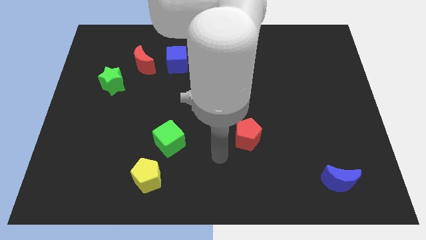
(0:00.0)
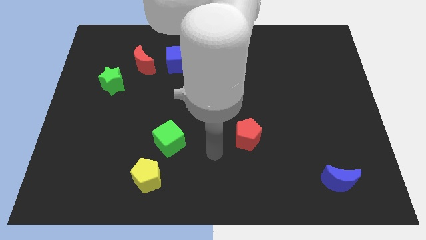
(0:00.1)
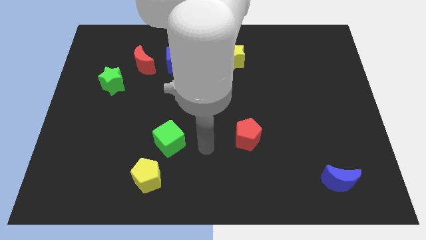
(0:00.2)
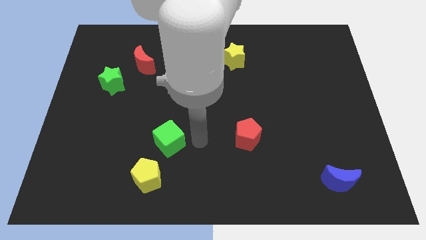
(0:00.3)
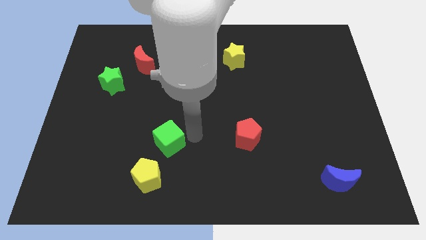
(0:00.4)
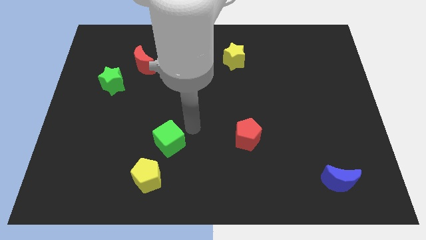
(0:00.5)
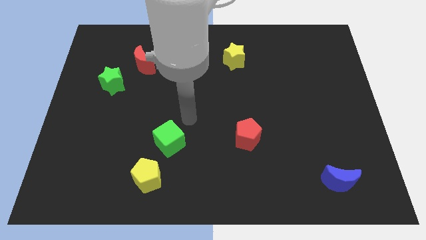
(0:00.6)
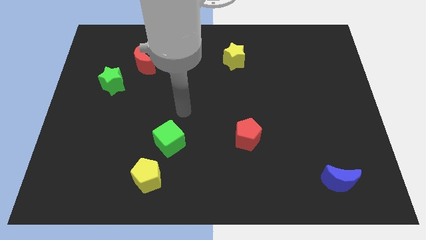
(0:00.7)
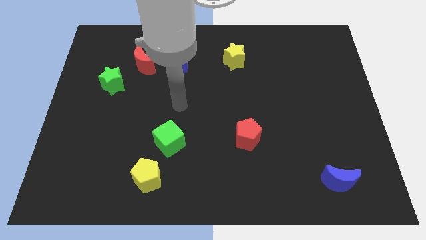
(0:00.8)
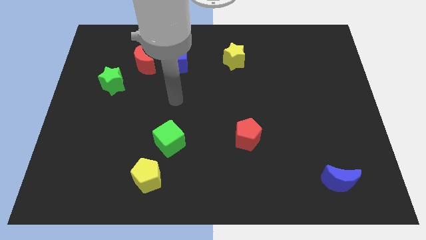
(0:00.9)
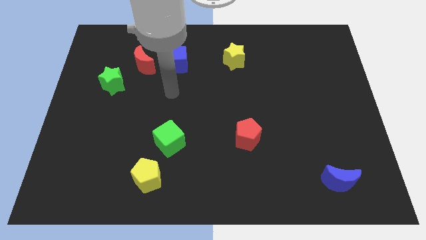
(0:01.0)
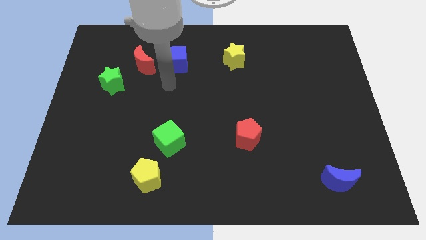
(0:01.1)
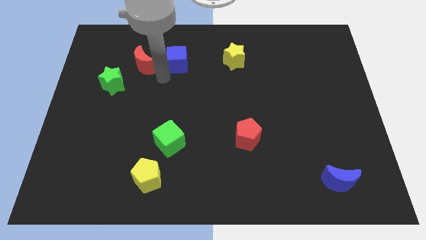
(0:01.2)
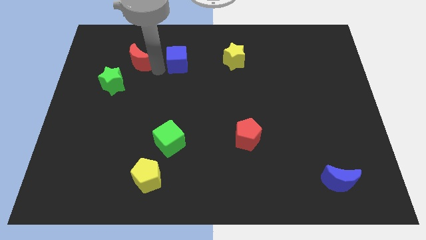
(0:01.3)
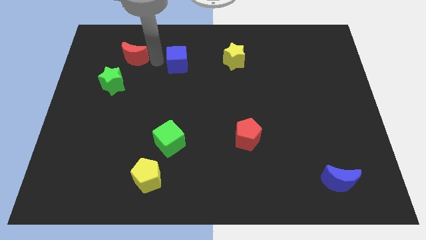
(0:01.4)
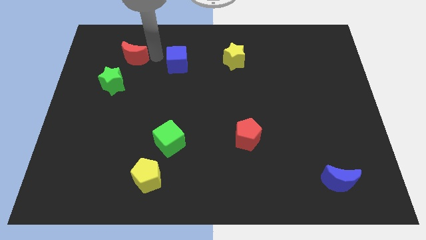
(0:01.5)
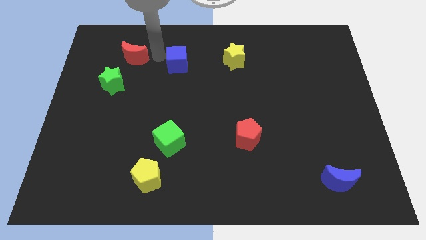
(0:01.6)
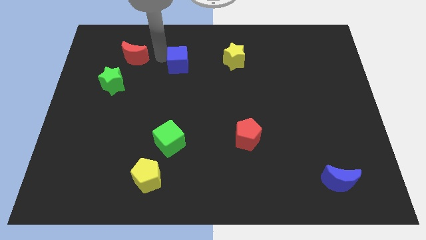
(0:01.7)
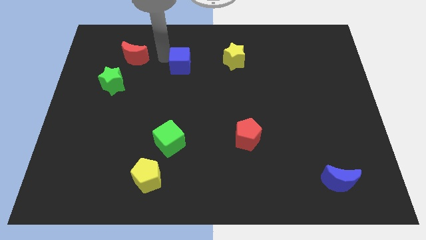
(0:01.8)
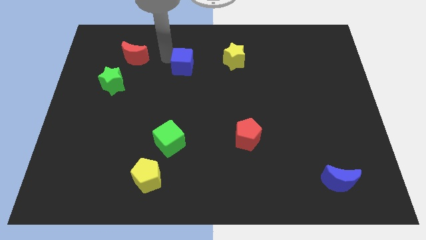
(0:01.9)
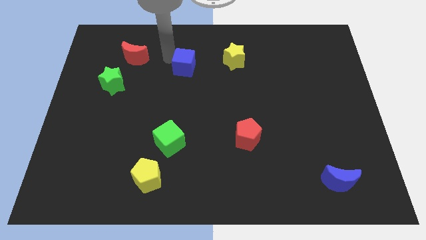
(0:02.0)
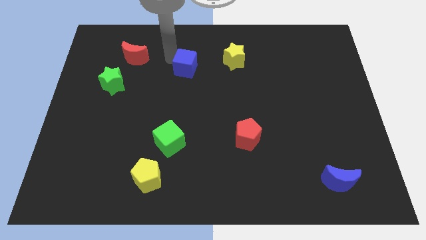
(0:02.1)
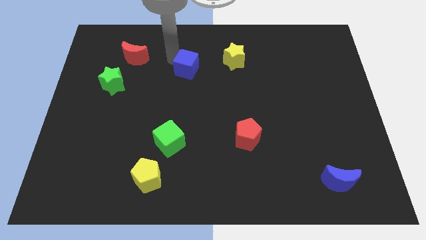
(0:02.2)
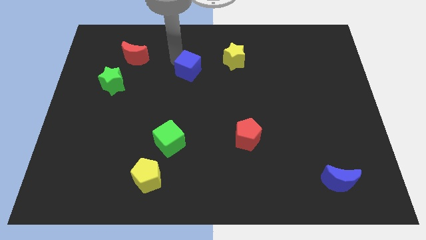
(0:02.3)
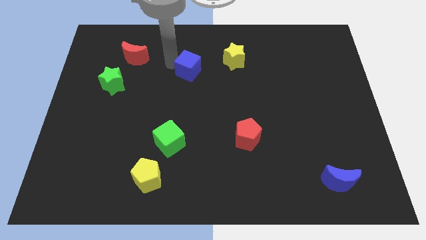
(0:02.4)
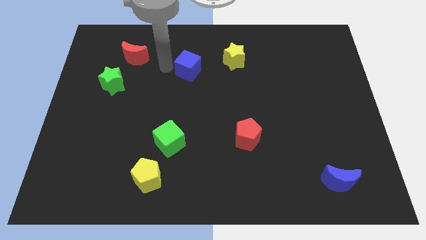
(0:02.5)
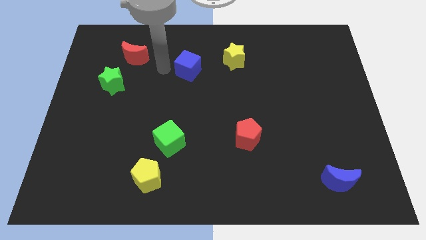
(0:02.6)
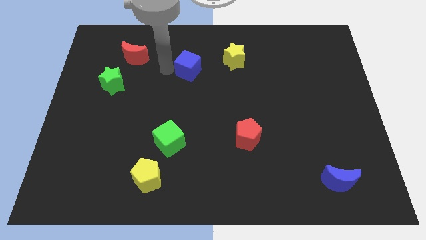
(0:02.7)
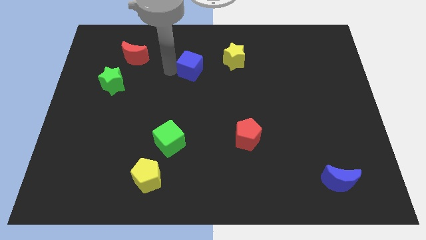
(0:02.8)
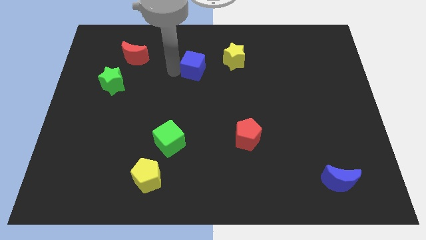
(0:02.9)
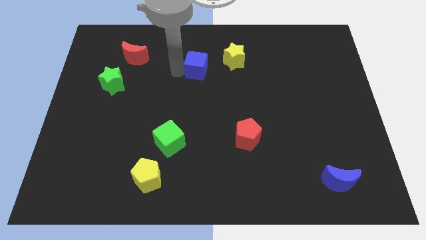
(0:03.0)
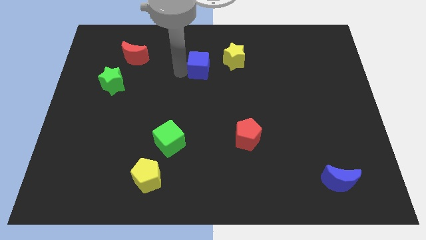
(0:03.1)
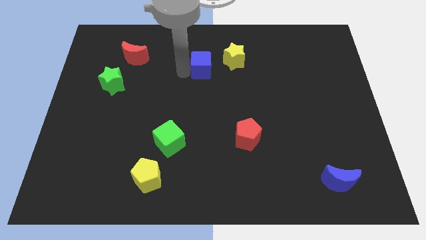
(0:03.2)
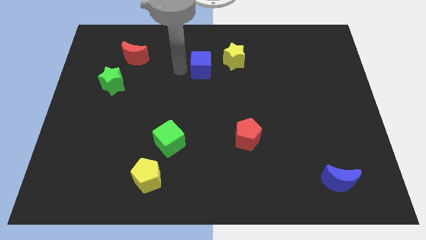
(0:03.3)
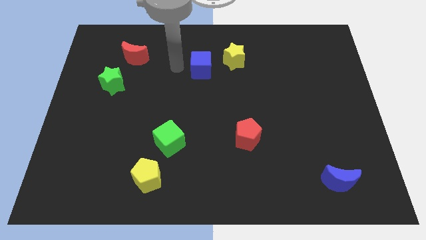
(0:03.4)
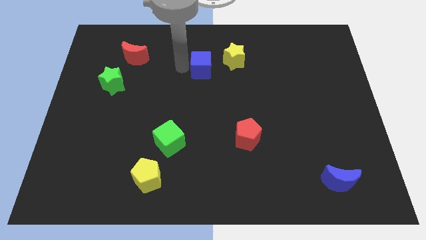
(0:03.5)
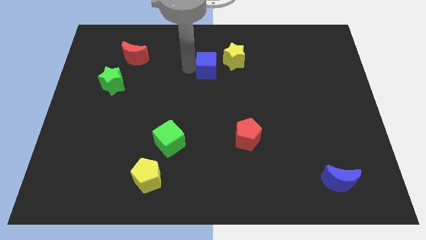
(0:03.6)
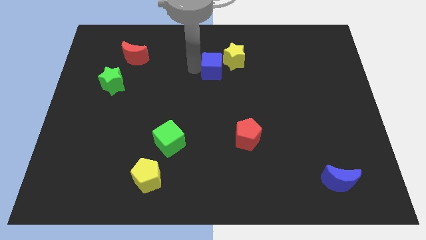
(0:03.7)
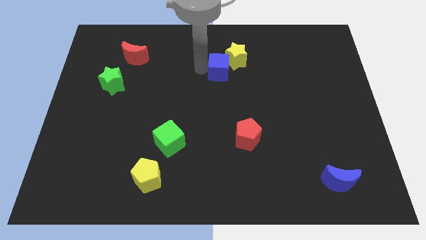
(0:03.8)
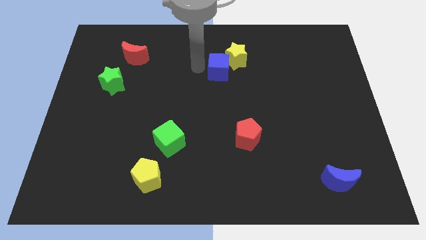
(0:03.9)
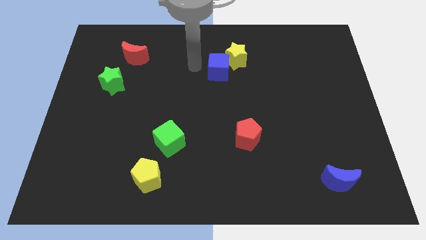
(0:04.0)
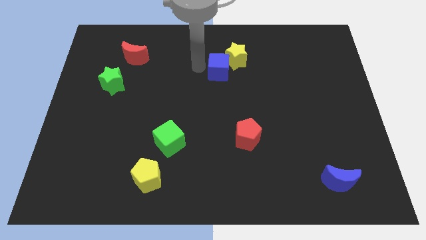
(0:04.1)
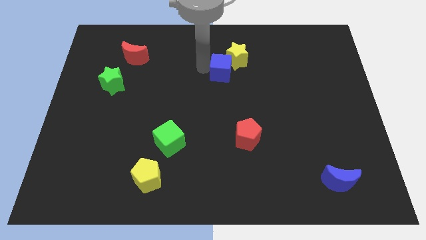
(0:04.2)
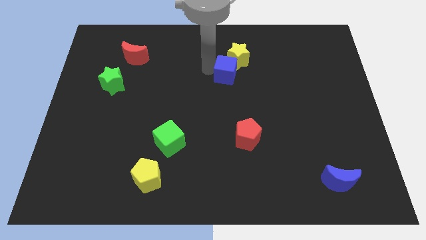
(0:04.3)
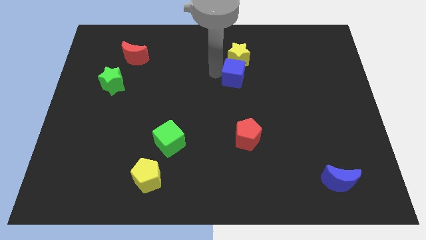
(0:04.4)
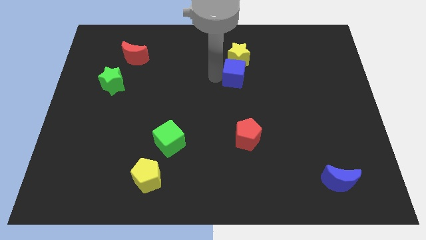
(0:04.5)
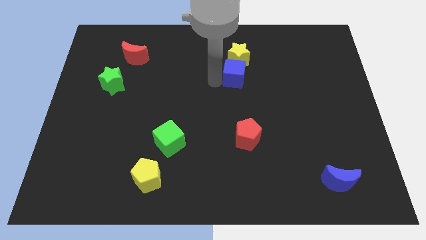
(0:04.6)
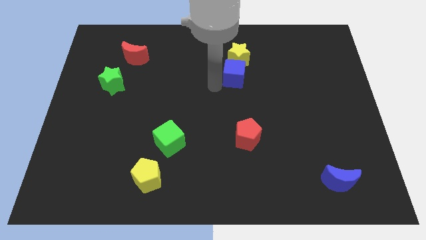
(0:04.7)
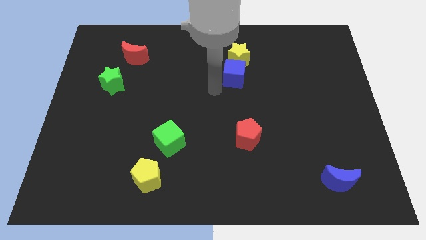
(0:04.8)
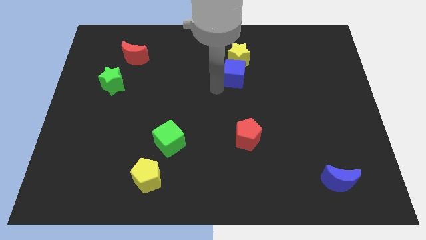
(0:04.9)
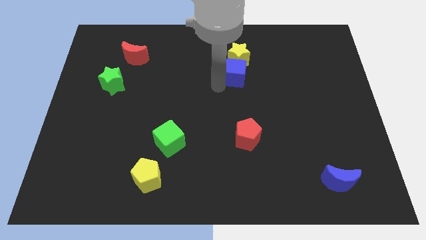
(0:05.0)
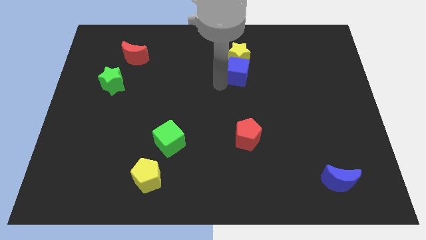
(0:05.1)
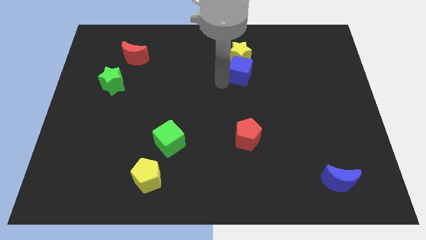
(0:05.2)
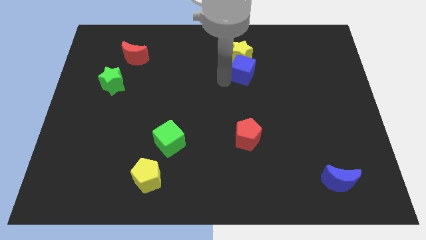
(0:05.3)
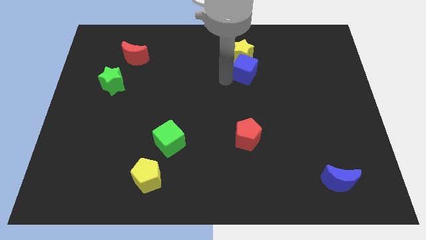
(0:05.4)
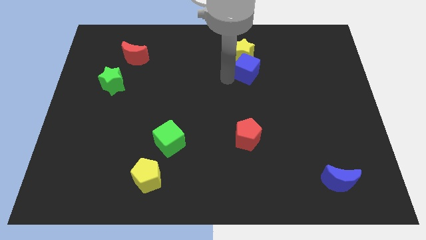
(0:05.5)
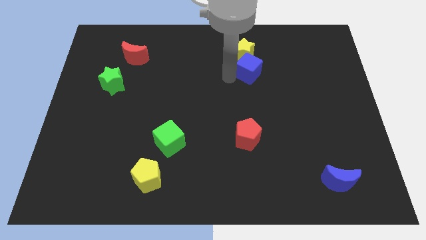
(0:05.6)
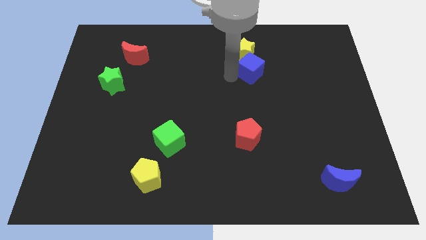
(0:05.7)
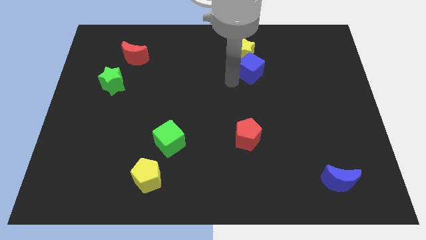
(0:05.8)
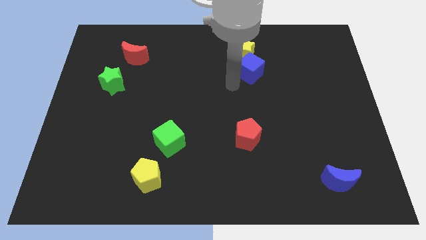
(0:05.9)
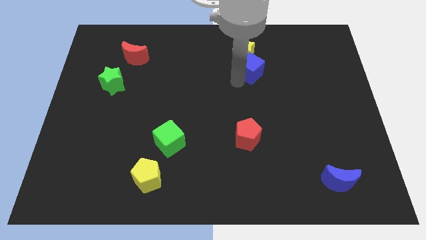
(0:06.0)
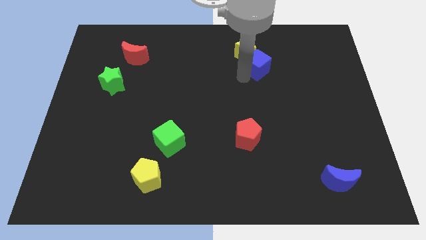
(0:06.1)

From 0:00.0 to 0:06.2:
move the blue cube to the right

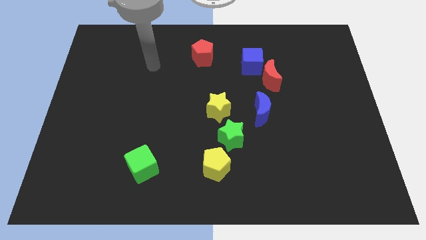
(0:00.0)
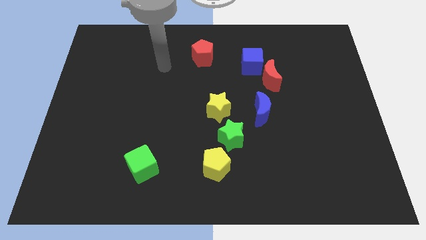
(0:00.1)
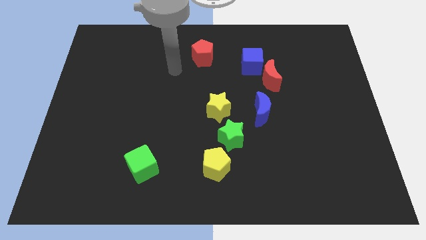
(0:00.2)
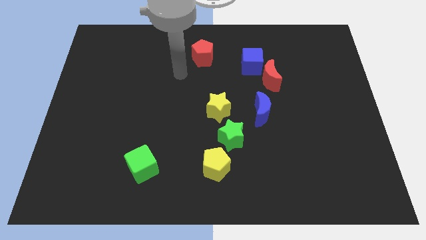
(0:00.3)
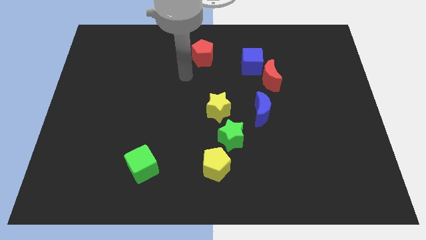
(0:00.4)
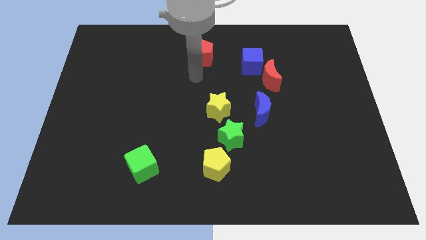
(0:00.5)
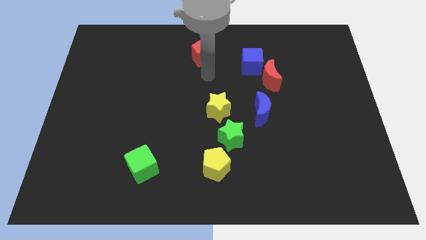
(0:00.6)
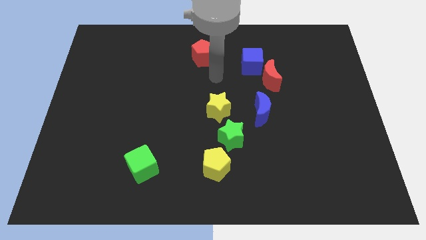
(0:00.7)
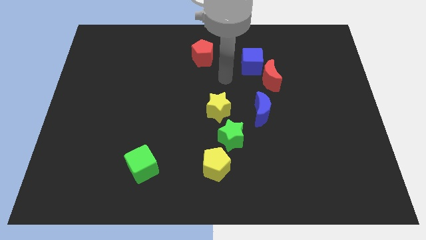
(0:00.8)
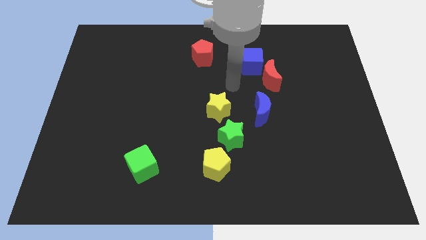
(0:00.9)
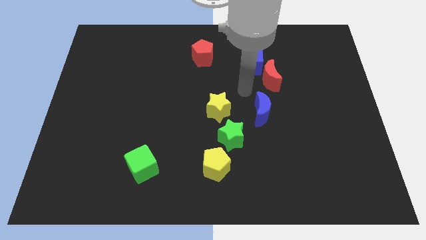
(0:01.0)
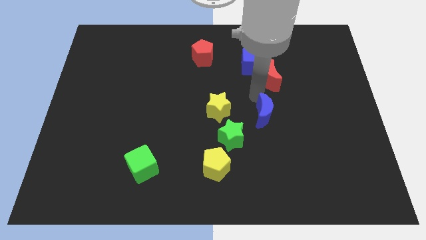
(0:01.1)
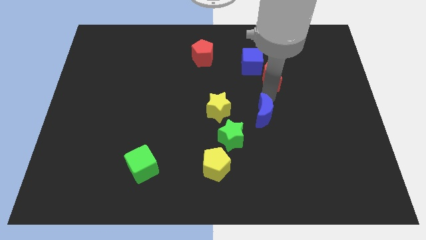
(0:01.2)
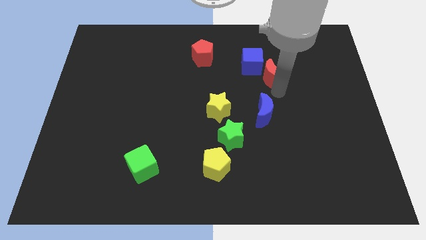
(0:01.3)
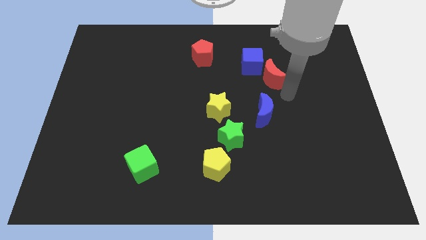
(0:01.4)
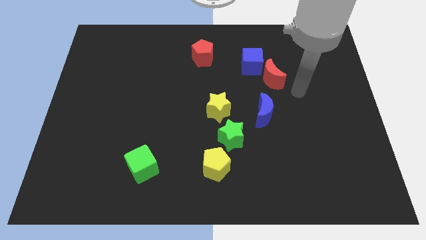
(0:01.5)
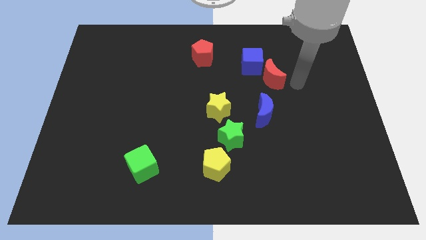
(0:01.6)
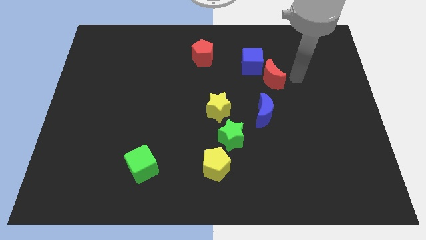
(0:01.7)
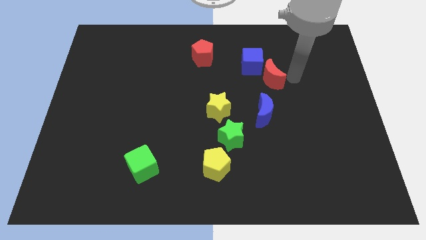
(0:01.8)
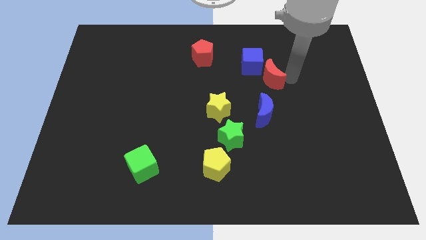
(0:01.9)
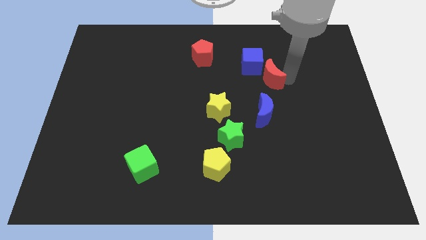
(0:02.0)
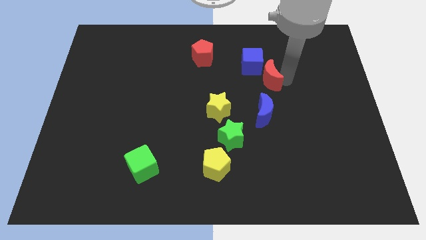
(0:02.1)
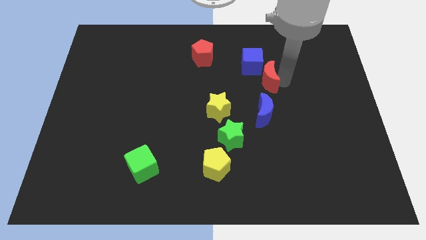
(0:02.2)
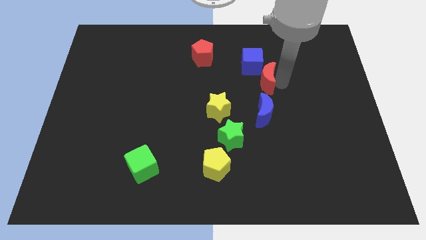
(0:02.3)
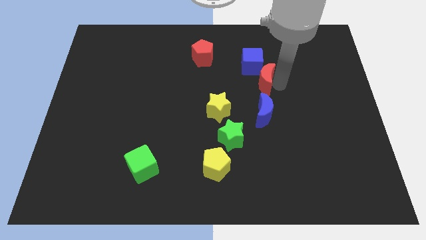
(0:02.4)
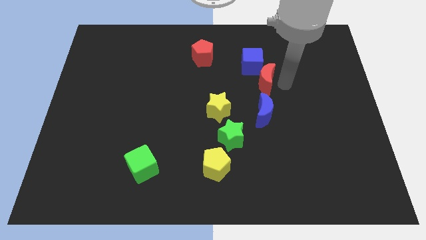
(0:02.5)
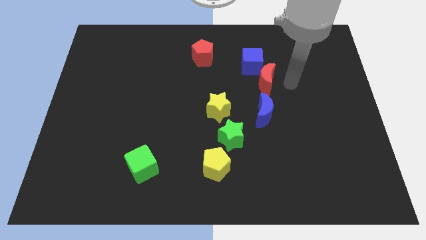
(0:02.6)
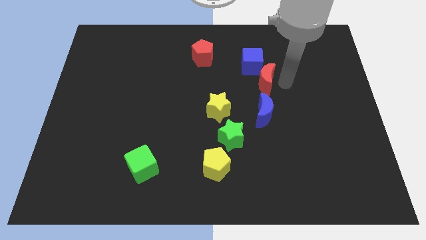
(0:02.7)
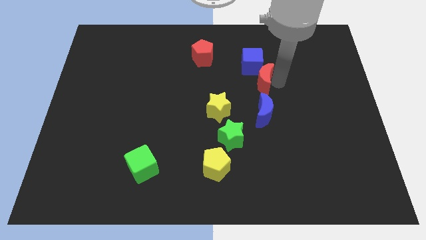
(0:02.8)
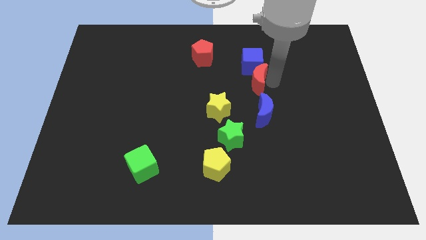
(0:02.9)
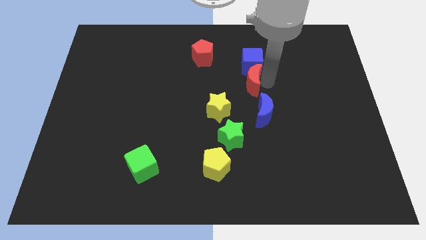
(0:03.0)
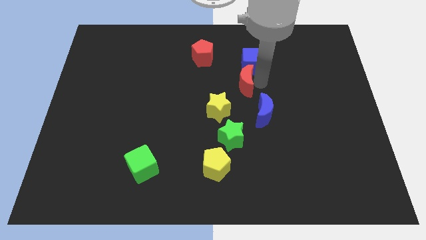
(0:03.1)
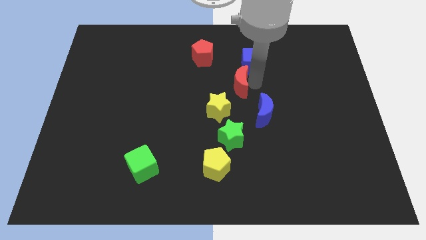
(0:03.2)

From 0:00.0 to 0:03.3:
slightly move the red moon left
